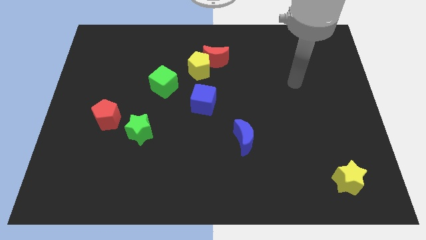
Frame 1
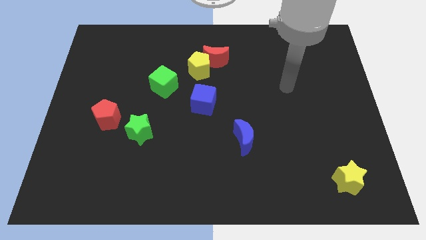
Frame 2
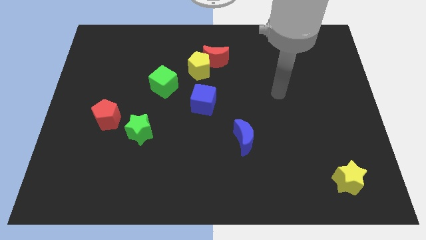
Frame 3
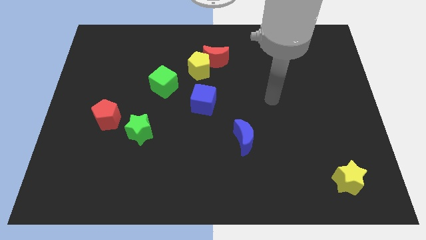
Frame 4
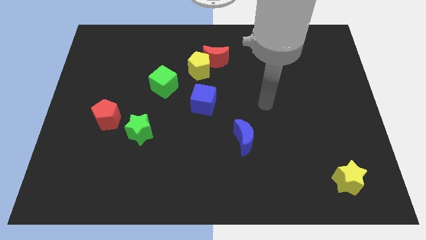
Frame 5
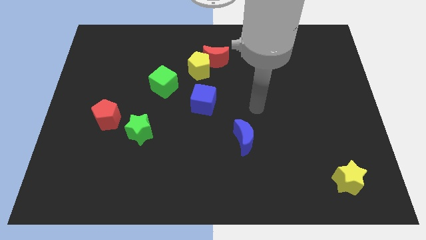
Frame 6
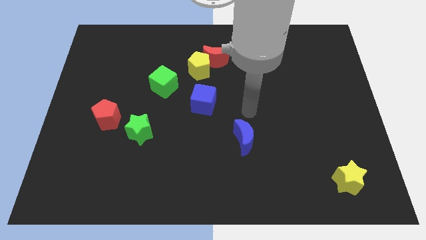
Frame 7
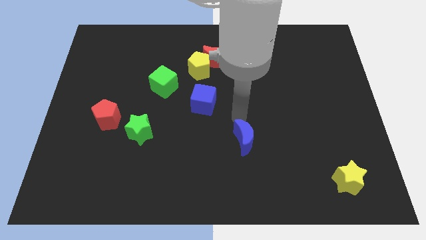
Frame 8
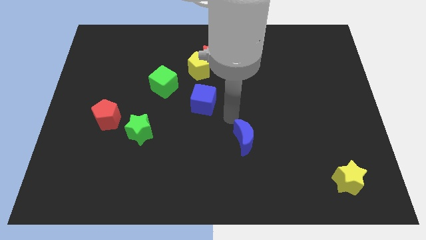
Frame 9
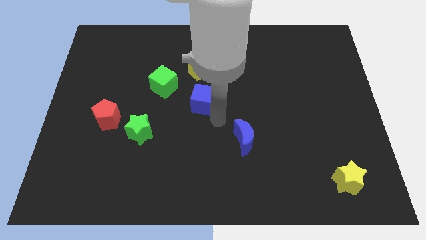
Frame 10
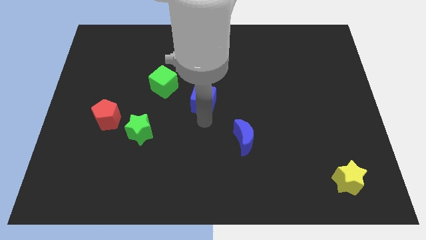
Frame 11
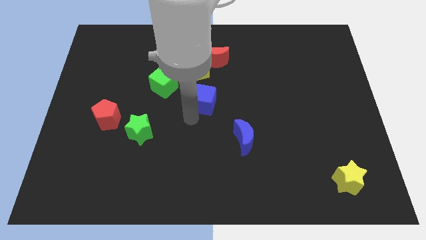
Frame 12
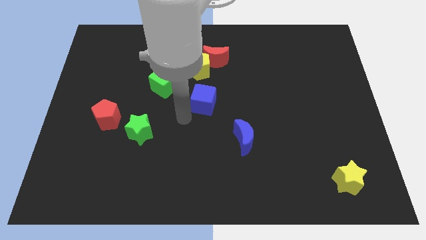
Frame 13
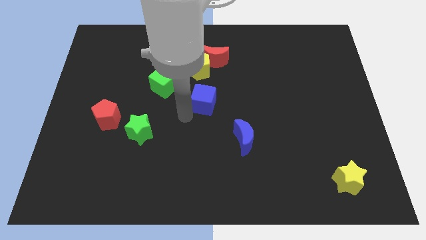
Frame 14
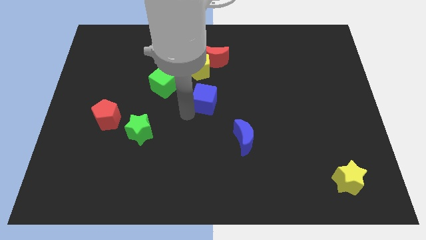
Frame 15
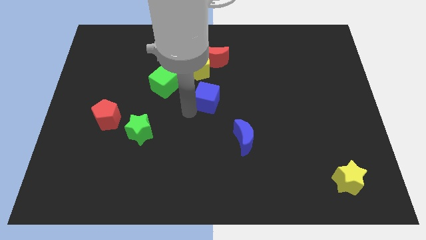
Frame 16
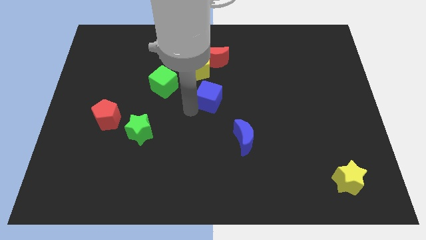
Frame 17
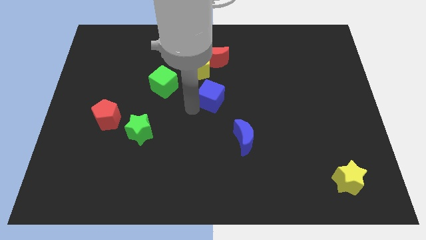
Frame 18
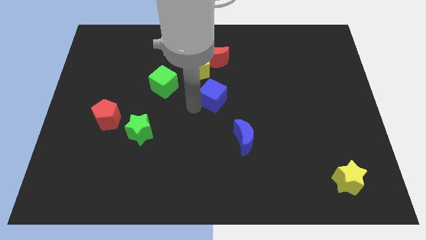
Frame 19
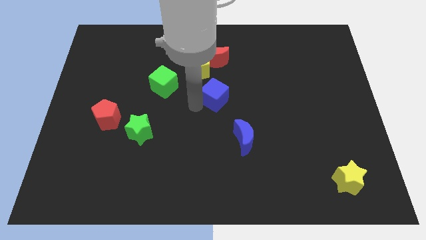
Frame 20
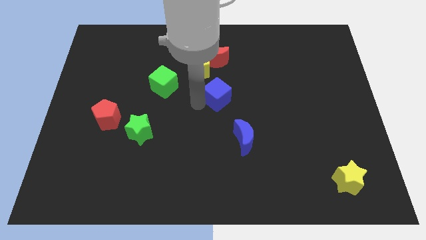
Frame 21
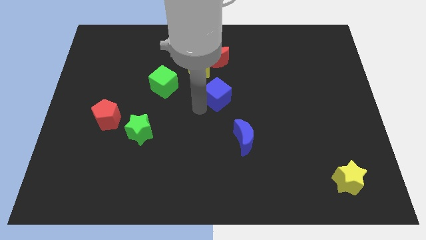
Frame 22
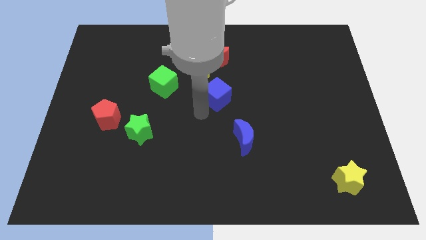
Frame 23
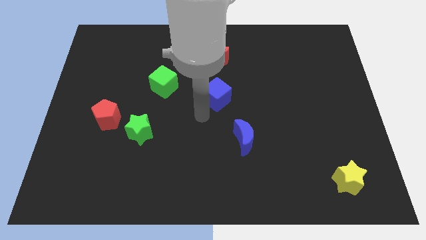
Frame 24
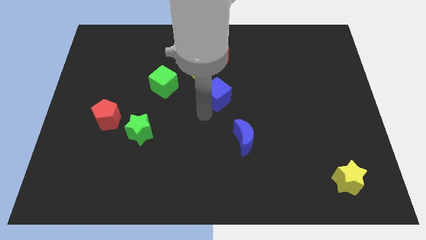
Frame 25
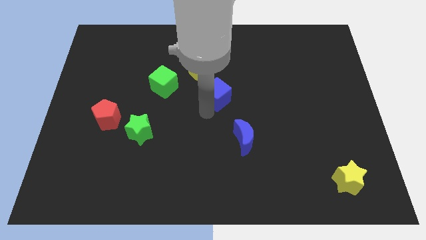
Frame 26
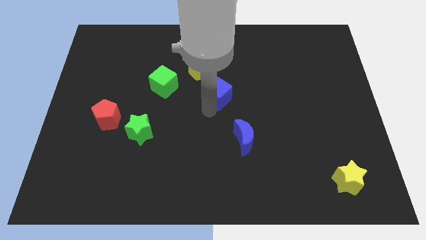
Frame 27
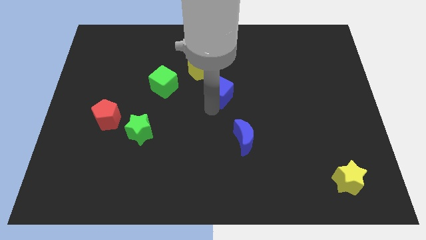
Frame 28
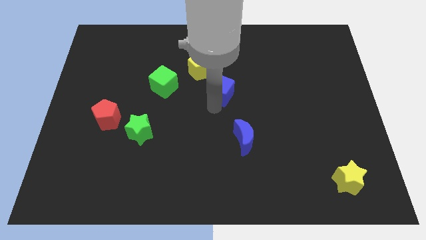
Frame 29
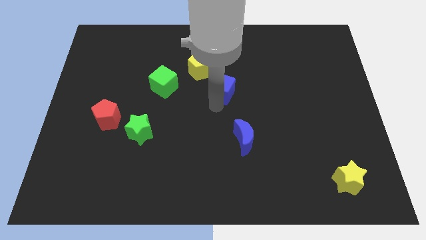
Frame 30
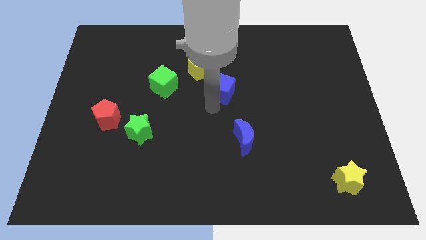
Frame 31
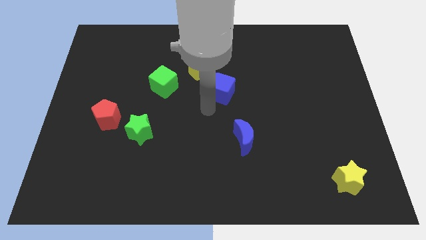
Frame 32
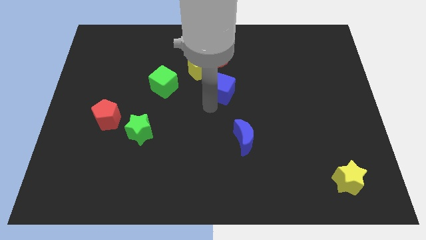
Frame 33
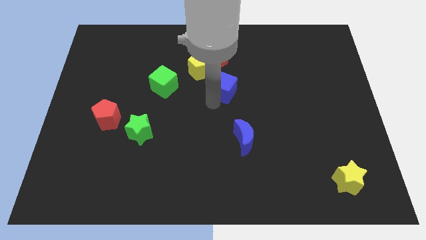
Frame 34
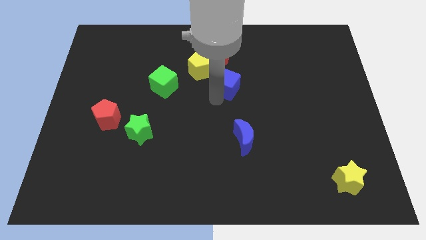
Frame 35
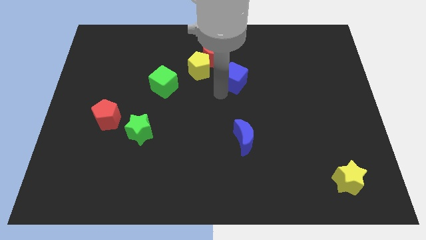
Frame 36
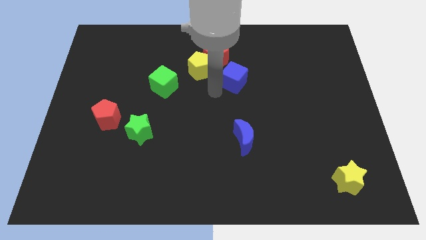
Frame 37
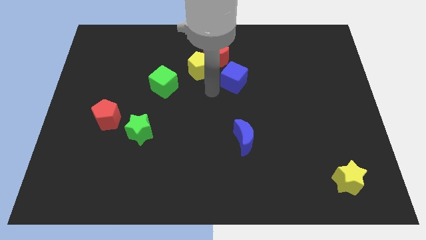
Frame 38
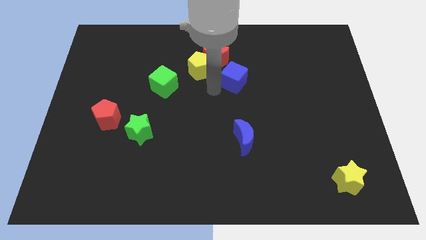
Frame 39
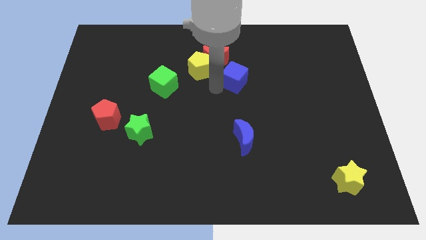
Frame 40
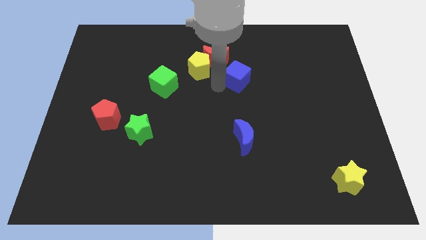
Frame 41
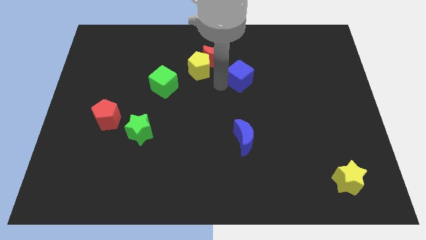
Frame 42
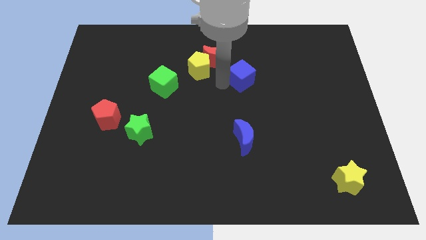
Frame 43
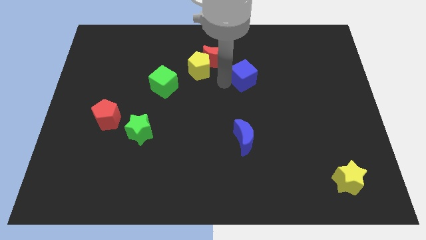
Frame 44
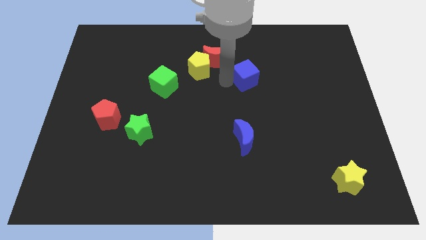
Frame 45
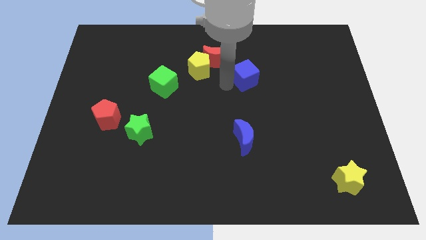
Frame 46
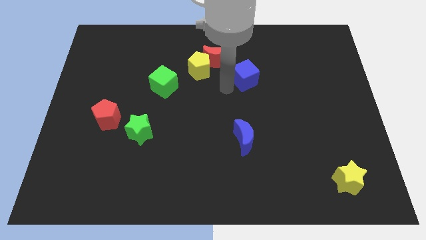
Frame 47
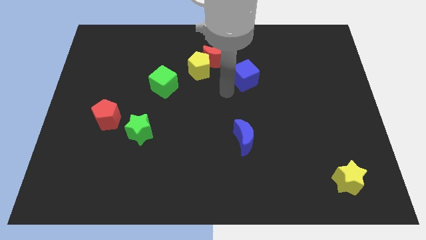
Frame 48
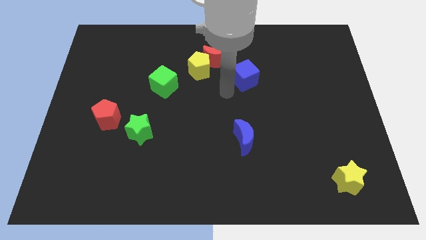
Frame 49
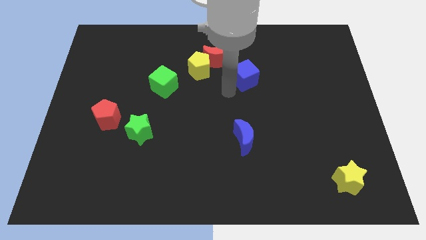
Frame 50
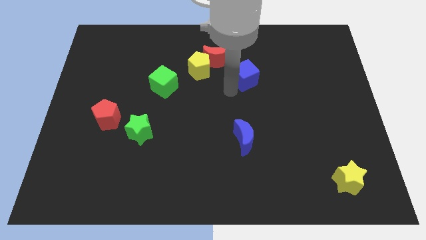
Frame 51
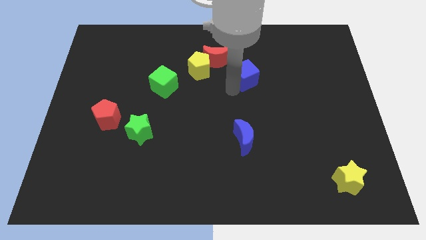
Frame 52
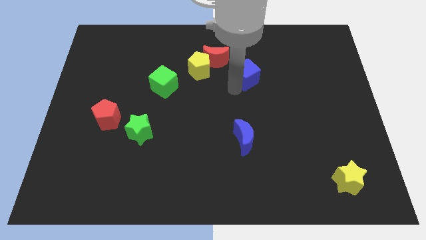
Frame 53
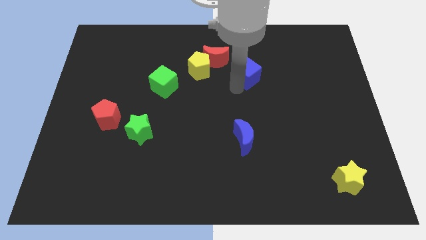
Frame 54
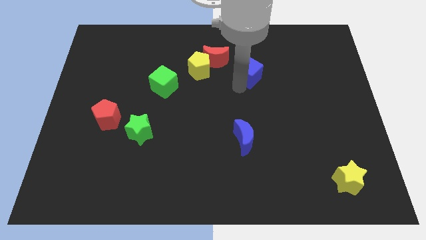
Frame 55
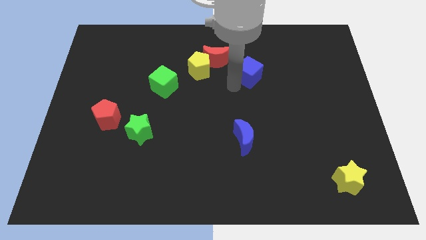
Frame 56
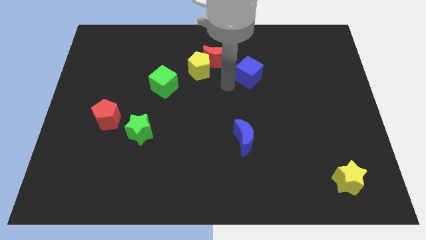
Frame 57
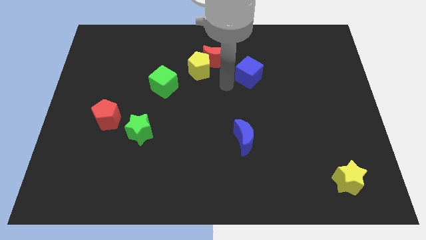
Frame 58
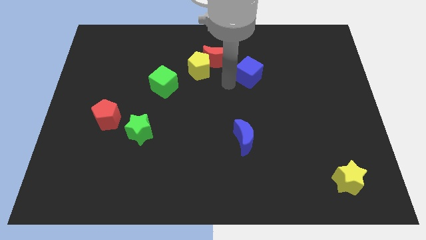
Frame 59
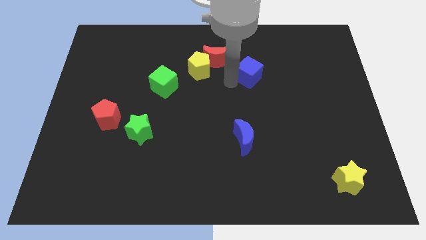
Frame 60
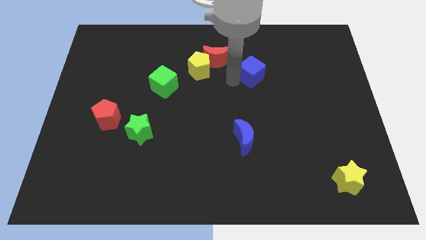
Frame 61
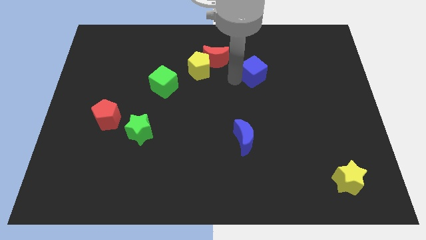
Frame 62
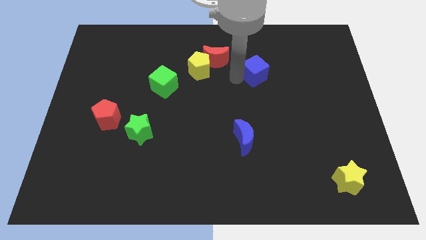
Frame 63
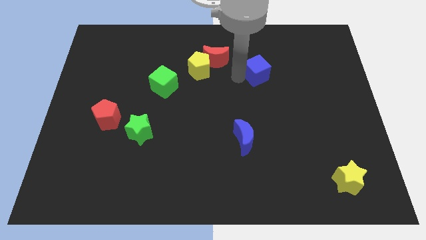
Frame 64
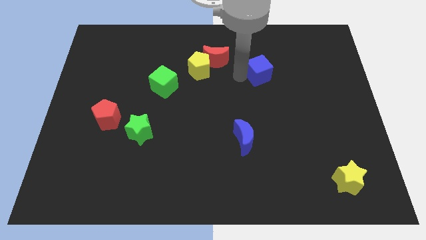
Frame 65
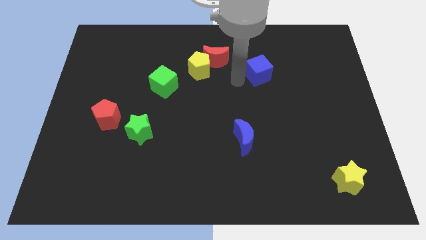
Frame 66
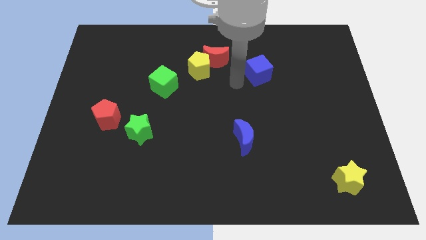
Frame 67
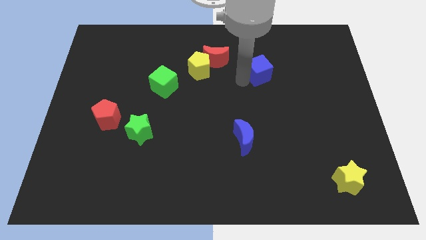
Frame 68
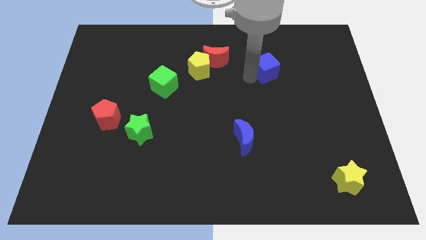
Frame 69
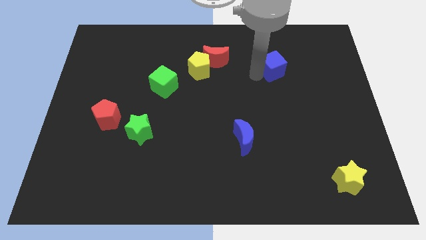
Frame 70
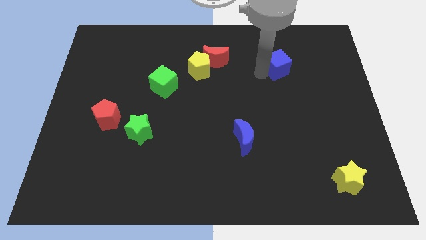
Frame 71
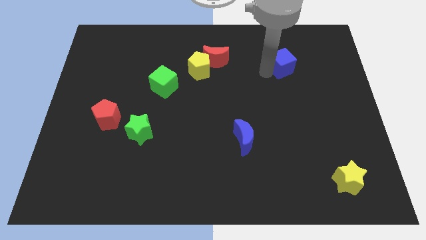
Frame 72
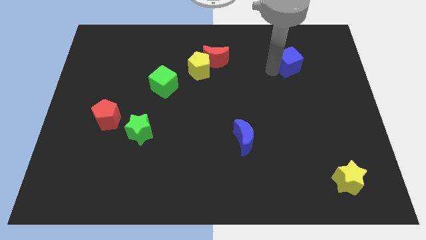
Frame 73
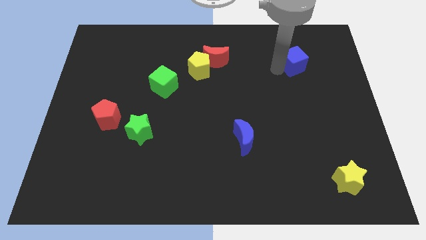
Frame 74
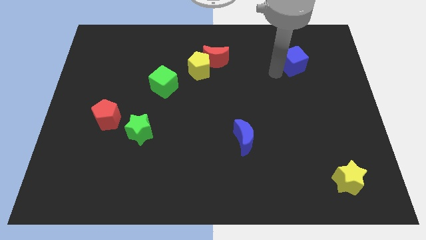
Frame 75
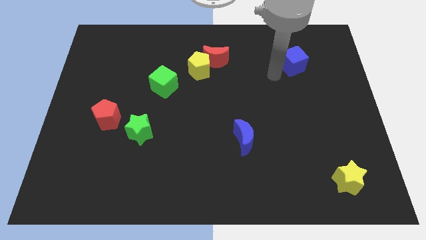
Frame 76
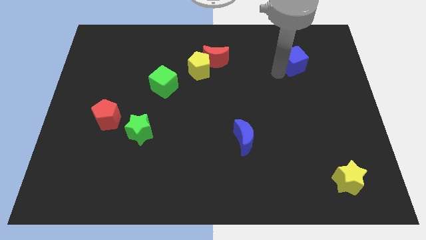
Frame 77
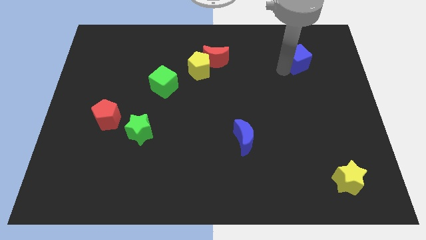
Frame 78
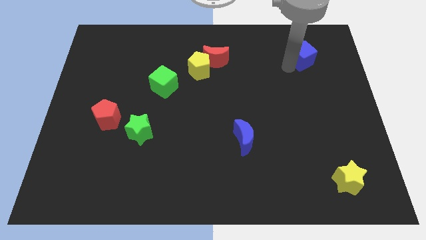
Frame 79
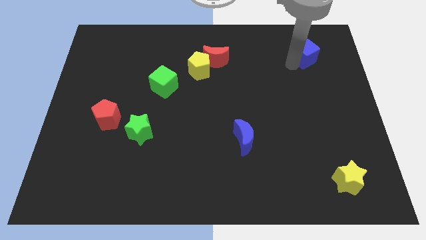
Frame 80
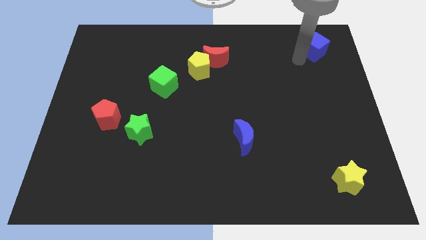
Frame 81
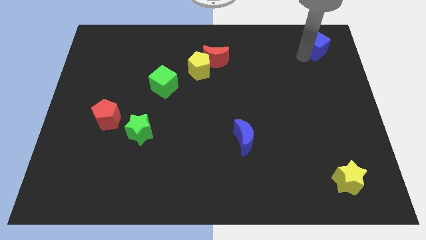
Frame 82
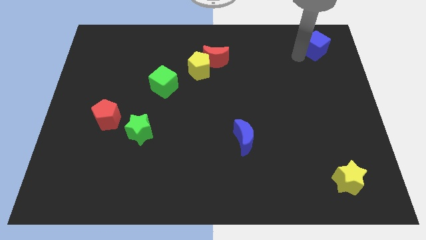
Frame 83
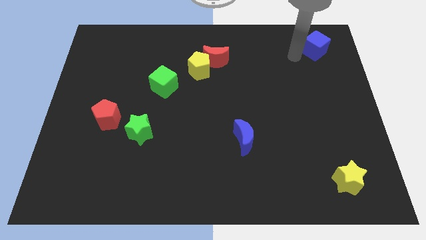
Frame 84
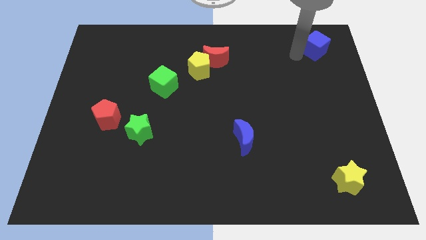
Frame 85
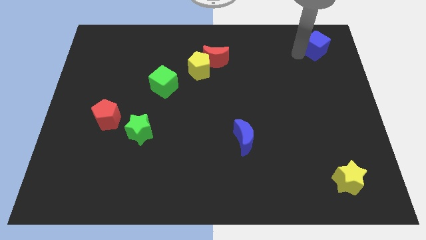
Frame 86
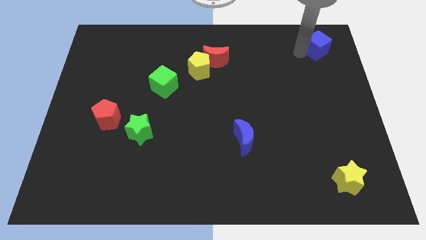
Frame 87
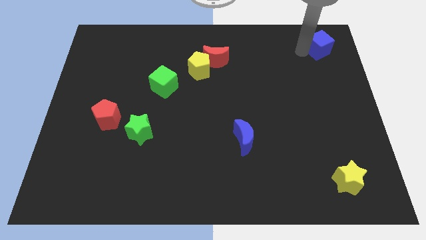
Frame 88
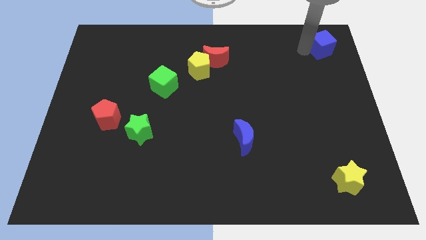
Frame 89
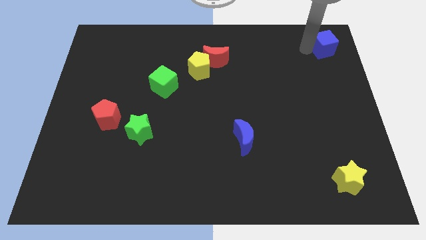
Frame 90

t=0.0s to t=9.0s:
move the blue cube to the top right of the board
